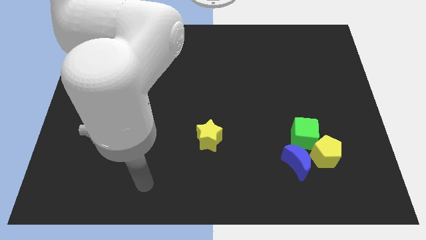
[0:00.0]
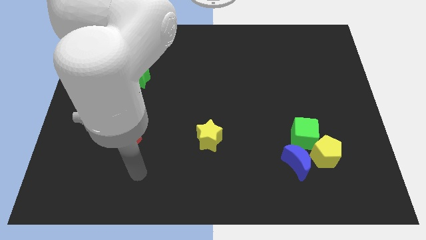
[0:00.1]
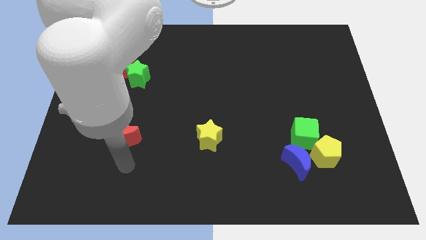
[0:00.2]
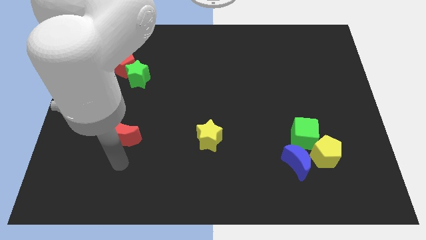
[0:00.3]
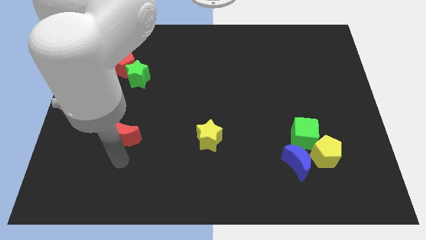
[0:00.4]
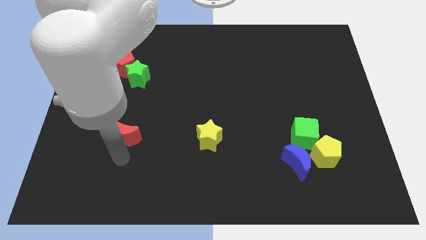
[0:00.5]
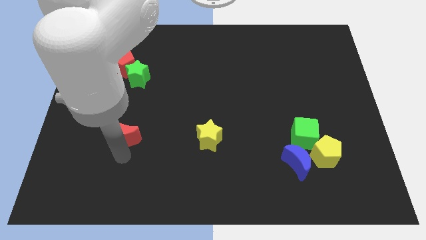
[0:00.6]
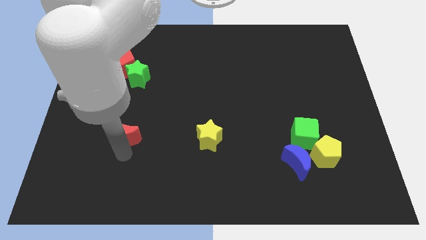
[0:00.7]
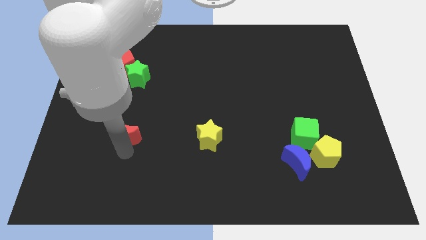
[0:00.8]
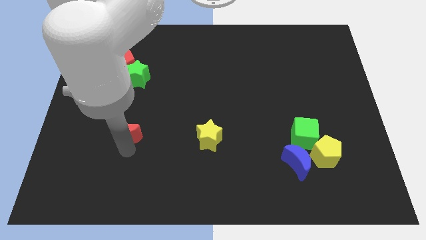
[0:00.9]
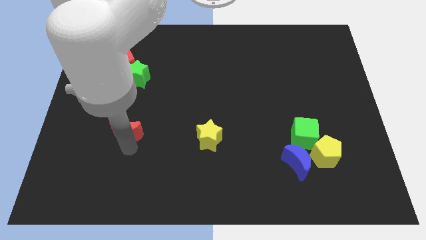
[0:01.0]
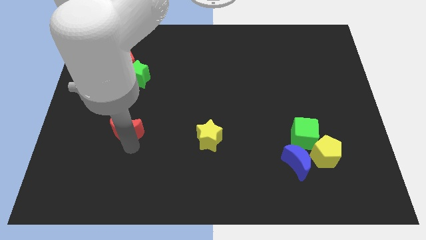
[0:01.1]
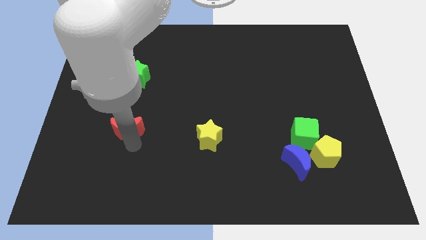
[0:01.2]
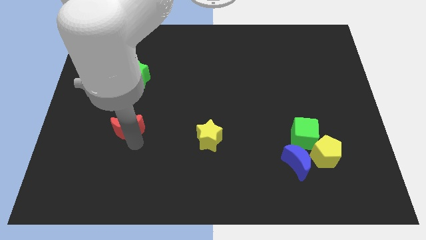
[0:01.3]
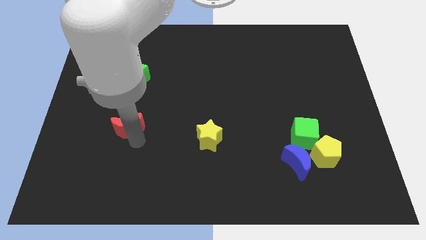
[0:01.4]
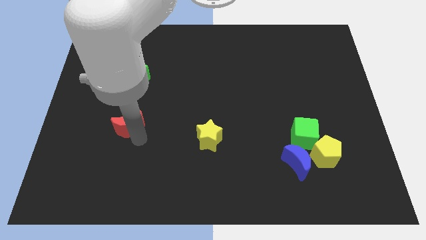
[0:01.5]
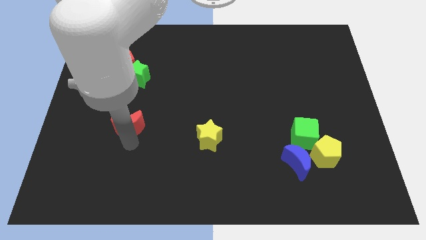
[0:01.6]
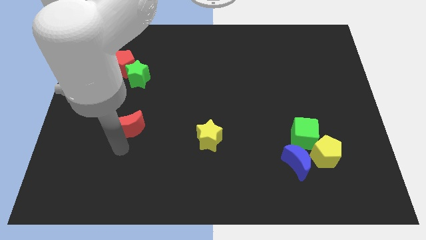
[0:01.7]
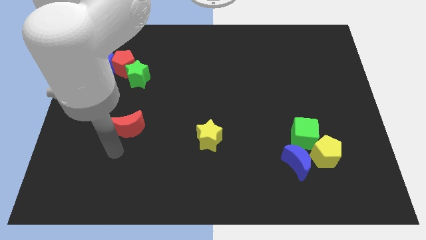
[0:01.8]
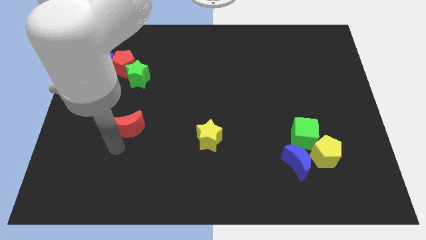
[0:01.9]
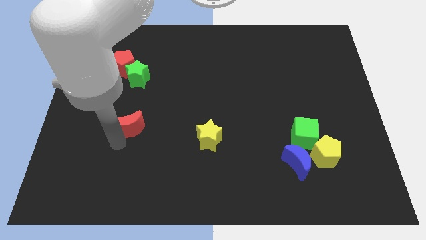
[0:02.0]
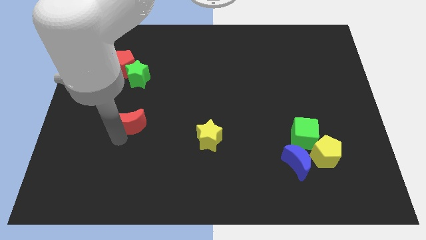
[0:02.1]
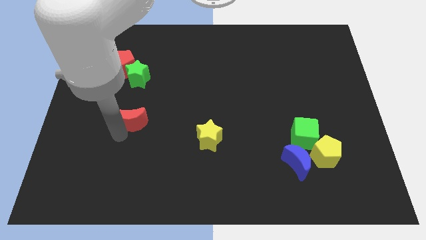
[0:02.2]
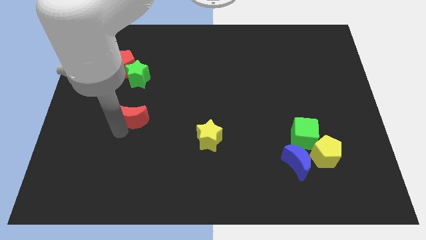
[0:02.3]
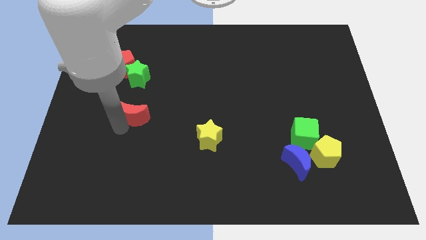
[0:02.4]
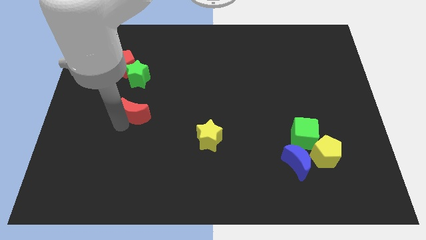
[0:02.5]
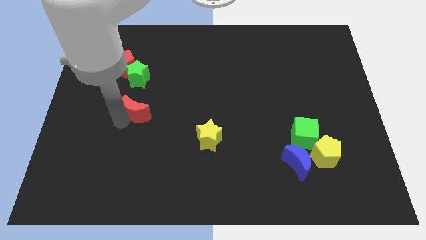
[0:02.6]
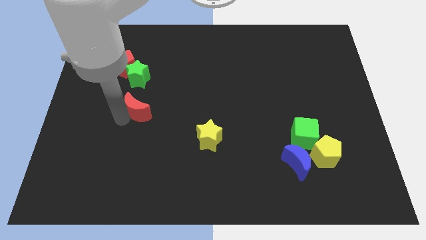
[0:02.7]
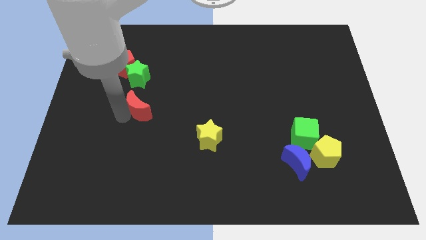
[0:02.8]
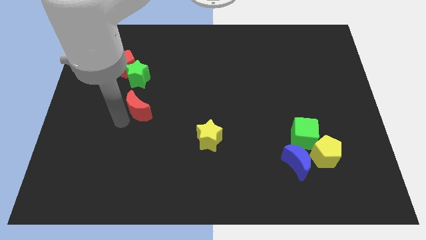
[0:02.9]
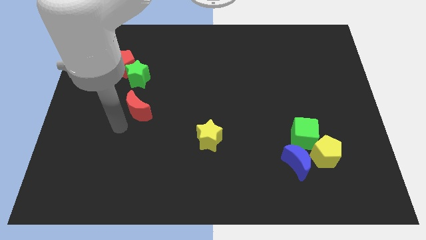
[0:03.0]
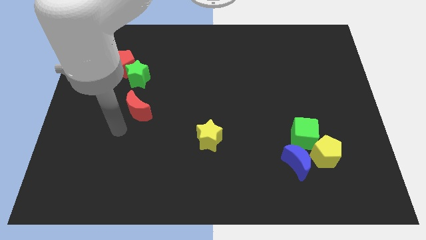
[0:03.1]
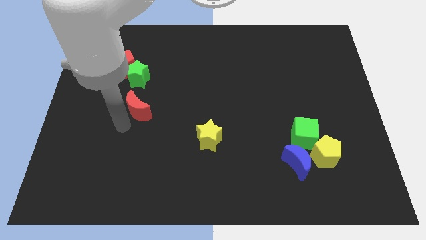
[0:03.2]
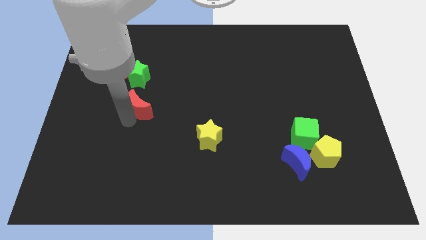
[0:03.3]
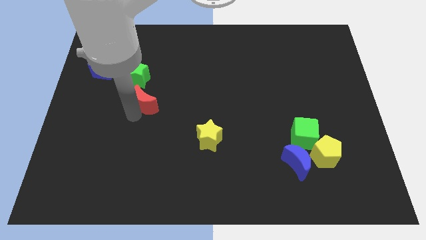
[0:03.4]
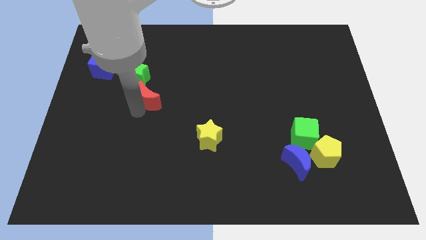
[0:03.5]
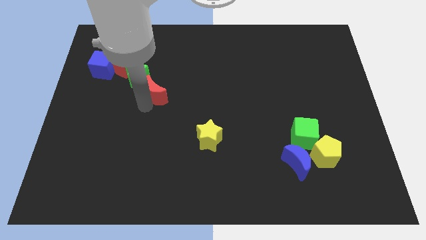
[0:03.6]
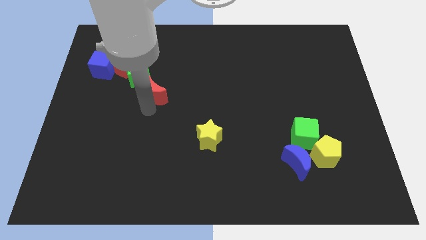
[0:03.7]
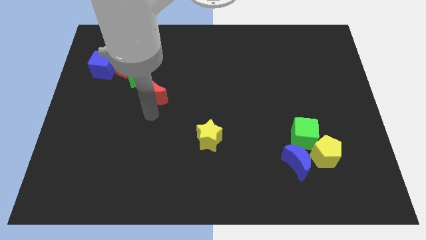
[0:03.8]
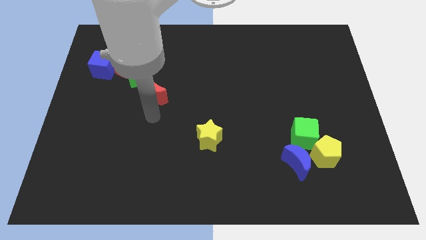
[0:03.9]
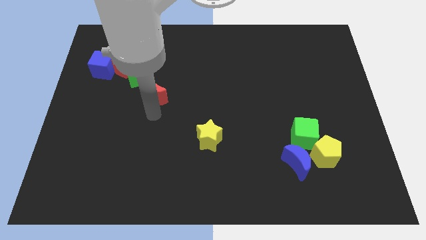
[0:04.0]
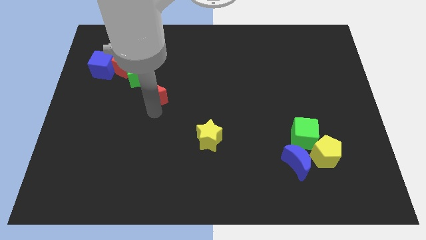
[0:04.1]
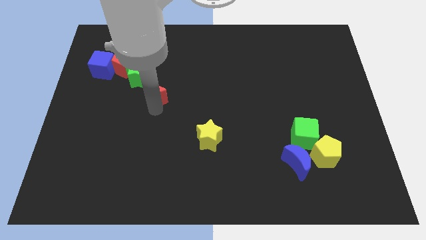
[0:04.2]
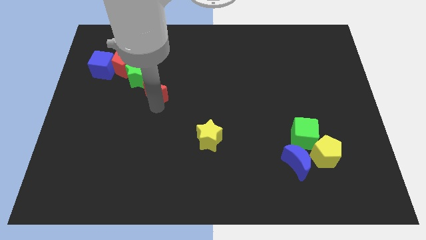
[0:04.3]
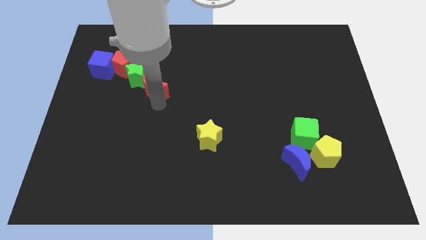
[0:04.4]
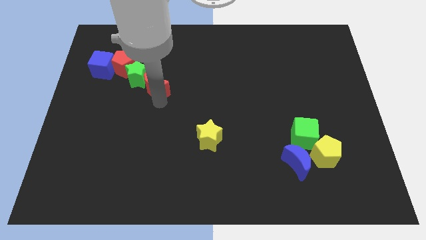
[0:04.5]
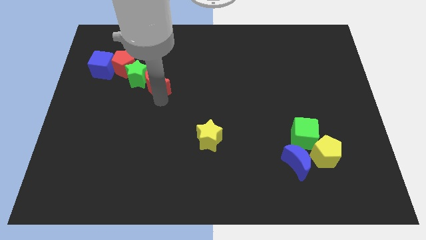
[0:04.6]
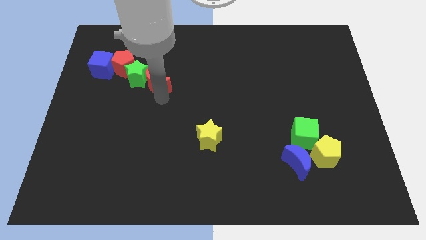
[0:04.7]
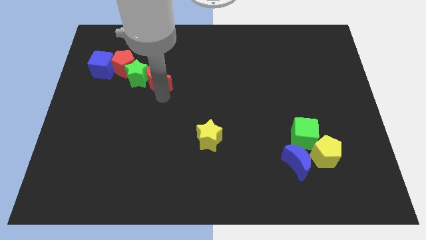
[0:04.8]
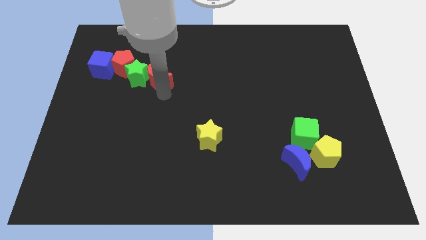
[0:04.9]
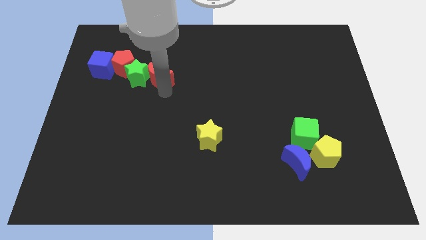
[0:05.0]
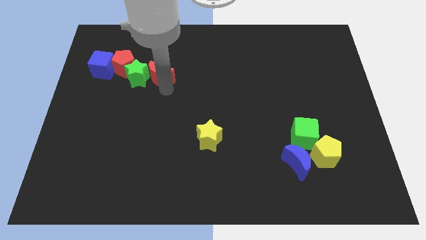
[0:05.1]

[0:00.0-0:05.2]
slide the red moon to the right side of the blue cube

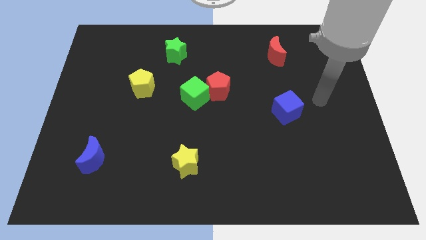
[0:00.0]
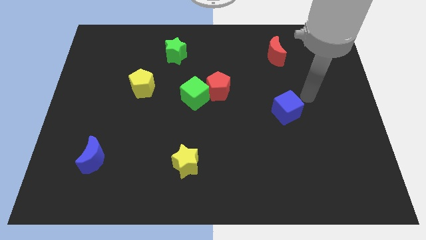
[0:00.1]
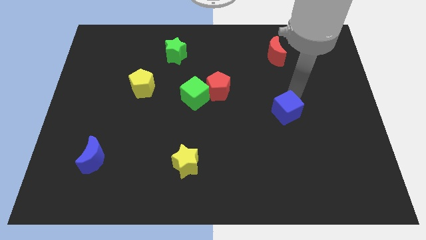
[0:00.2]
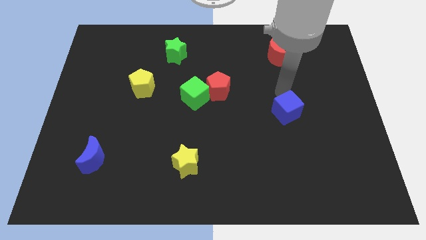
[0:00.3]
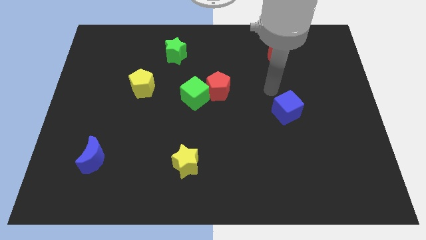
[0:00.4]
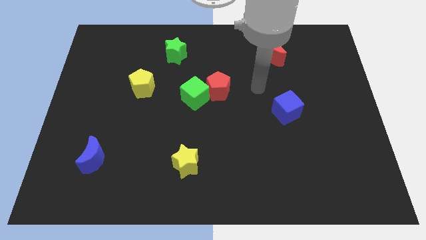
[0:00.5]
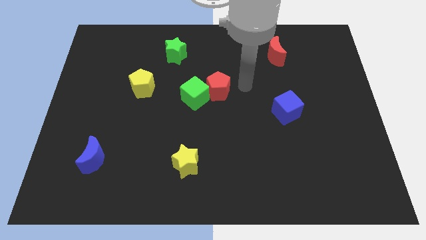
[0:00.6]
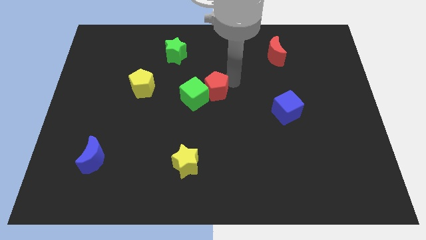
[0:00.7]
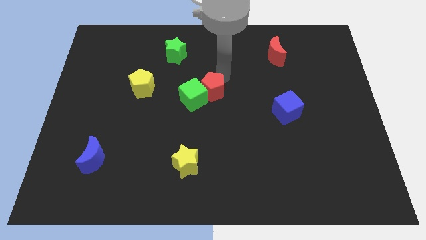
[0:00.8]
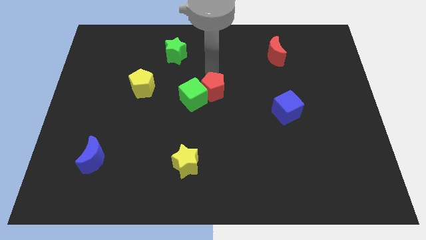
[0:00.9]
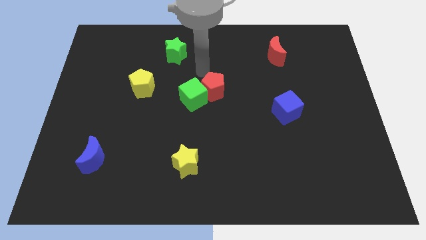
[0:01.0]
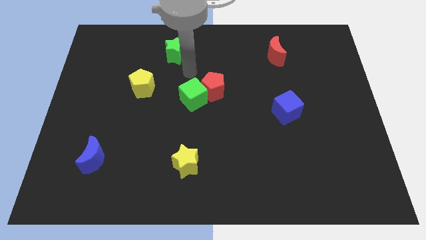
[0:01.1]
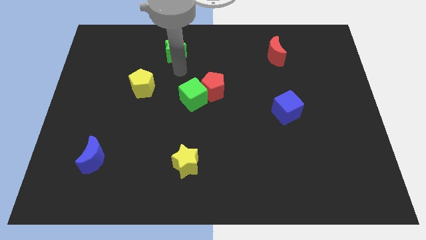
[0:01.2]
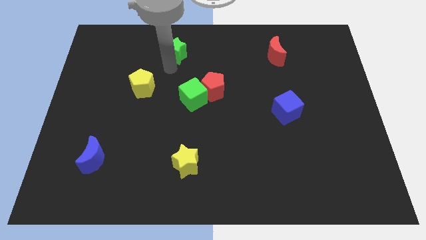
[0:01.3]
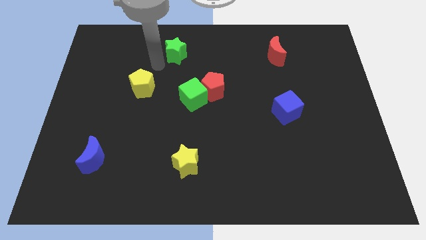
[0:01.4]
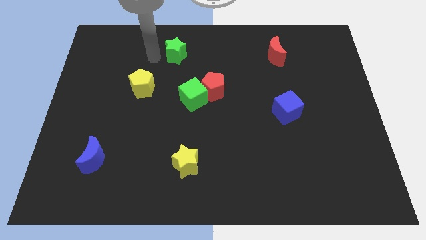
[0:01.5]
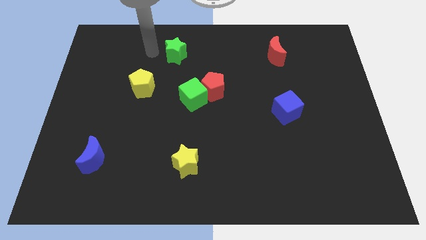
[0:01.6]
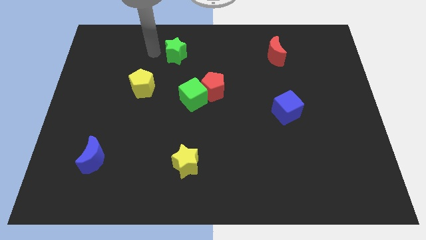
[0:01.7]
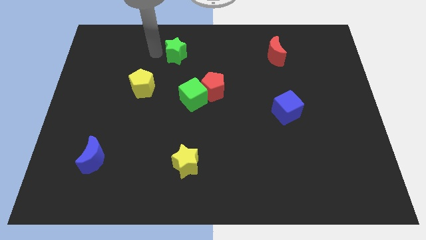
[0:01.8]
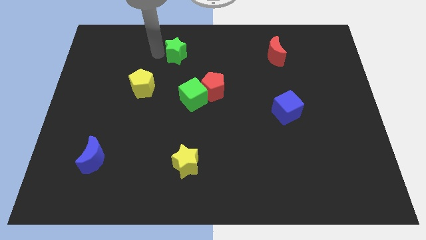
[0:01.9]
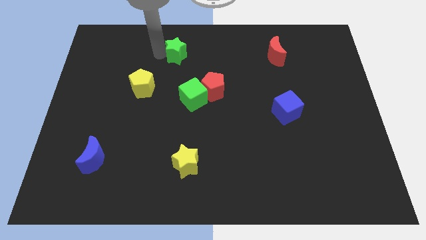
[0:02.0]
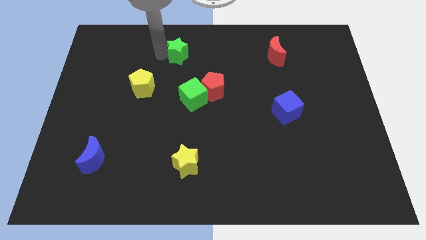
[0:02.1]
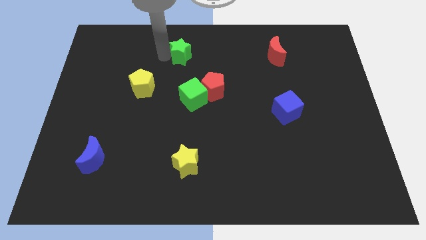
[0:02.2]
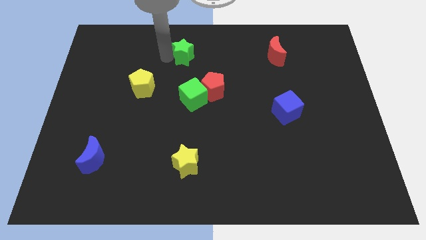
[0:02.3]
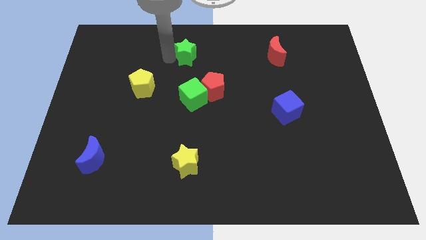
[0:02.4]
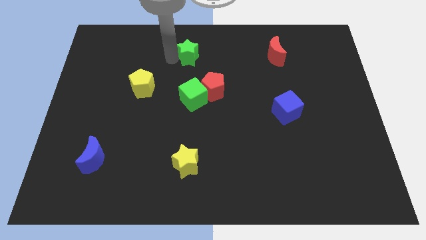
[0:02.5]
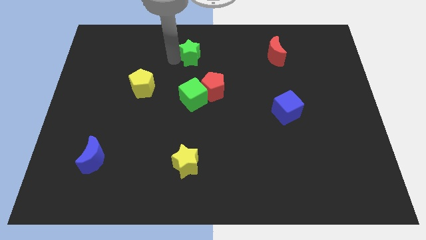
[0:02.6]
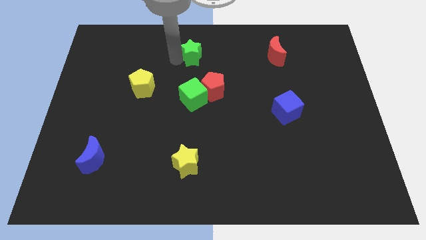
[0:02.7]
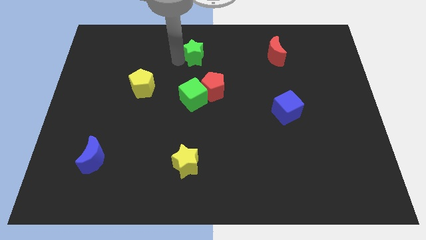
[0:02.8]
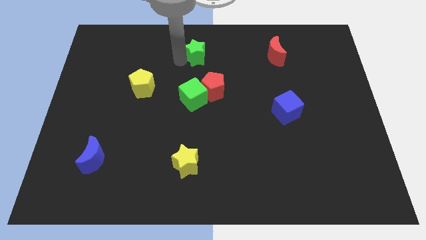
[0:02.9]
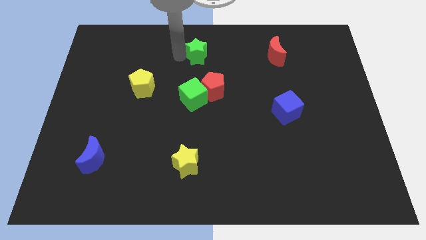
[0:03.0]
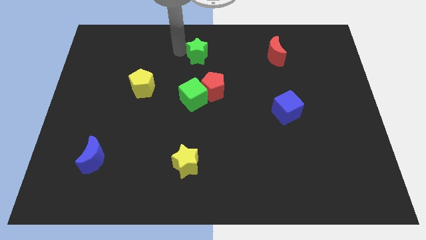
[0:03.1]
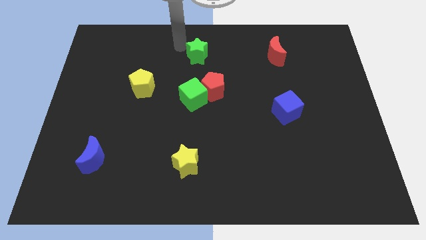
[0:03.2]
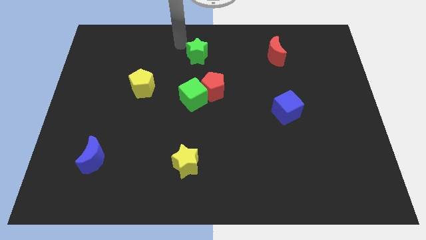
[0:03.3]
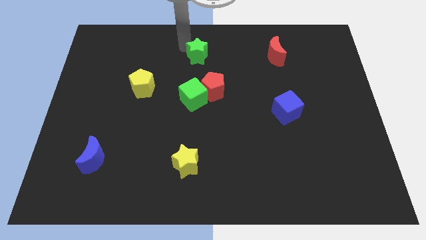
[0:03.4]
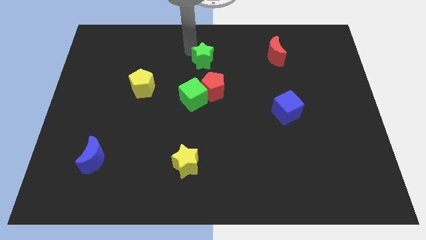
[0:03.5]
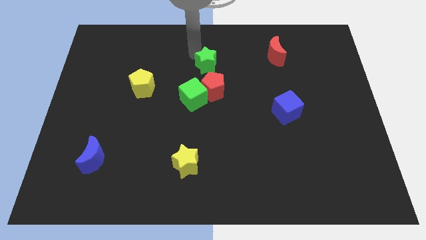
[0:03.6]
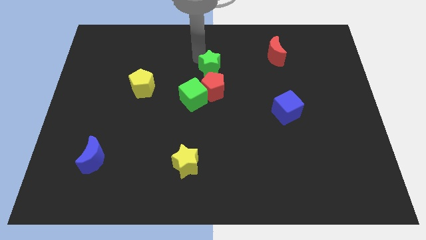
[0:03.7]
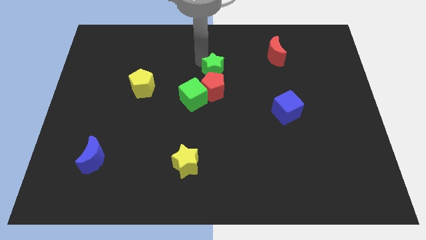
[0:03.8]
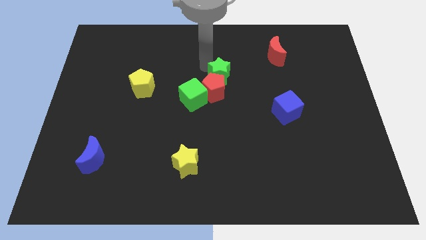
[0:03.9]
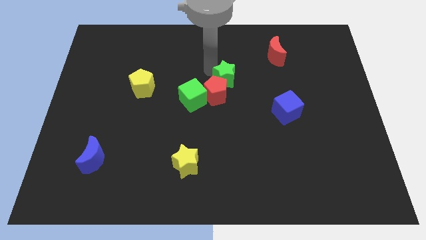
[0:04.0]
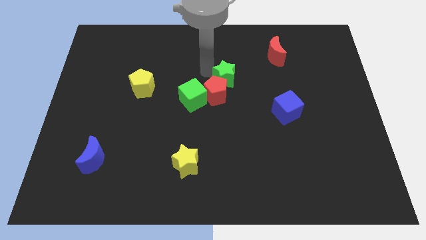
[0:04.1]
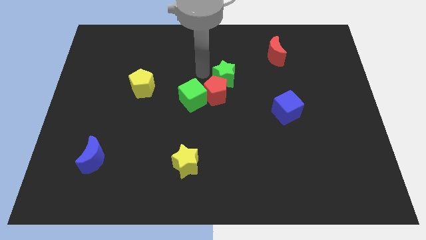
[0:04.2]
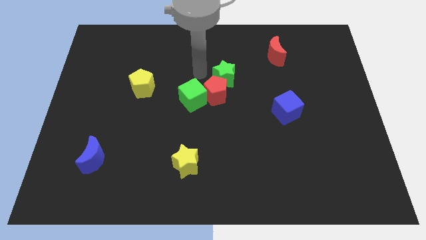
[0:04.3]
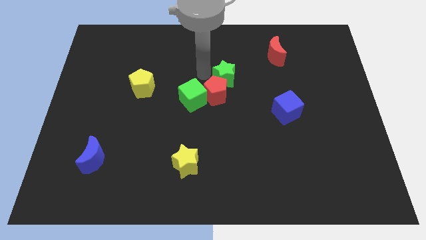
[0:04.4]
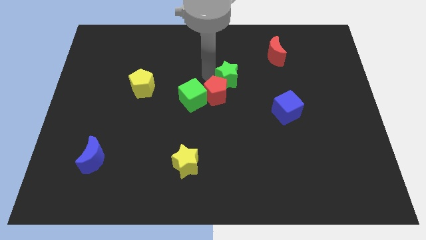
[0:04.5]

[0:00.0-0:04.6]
push the green star just right of the red pentagon
